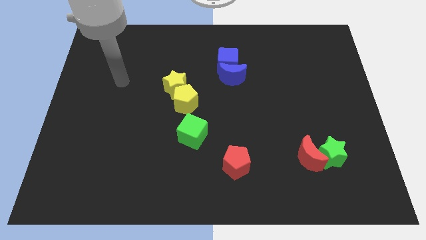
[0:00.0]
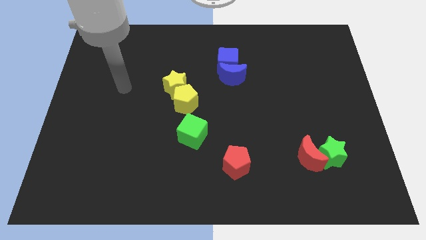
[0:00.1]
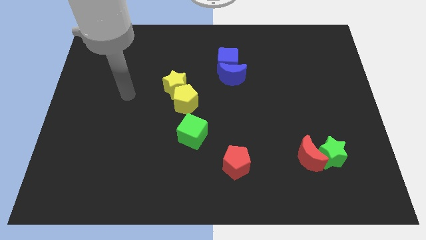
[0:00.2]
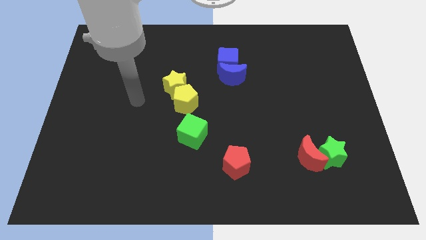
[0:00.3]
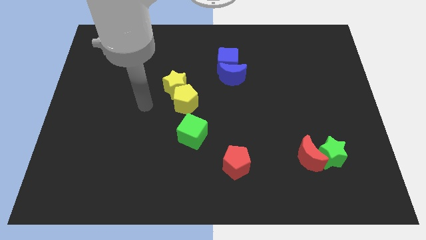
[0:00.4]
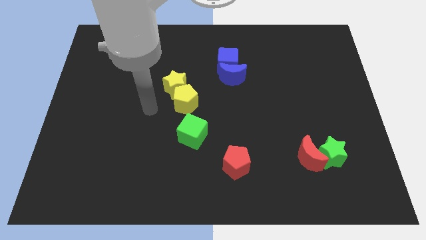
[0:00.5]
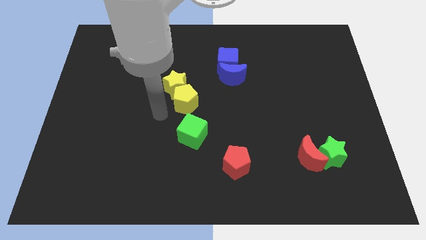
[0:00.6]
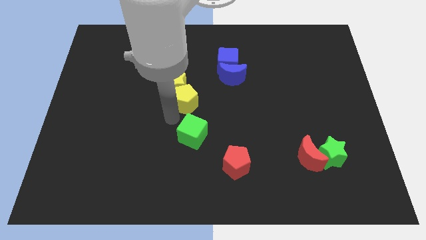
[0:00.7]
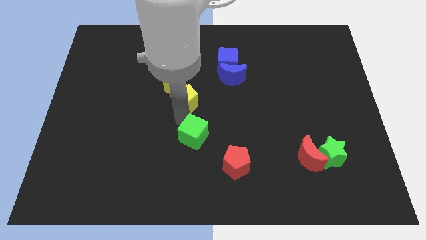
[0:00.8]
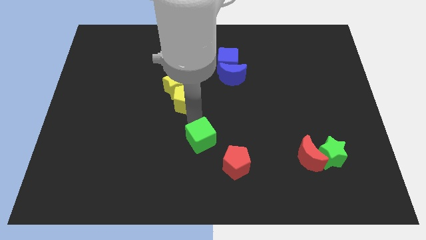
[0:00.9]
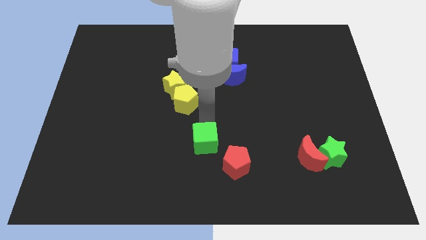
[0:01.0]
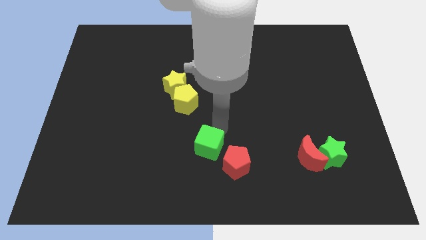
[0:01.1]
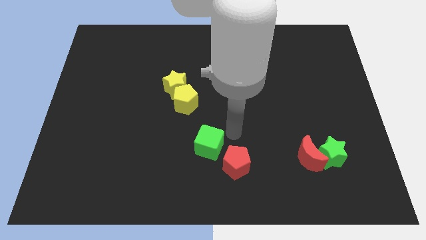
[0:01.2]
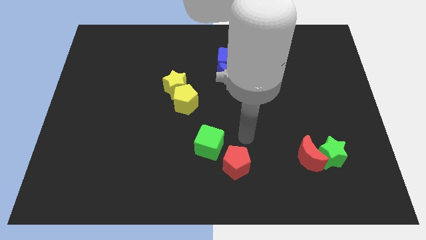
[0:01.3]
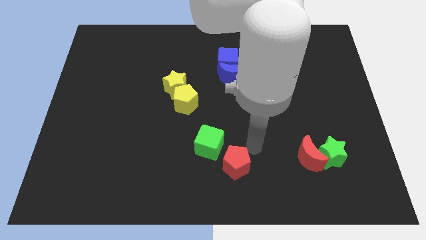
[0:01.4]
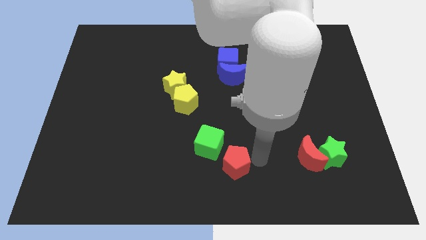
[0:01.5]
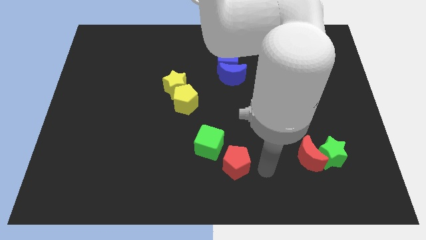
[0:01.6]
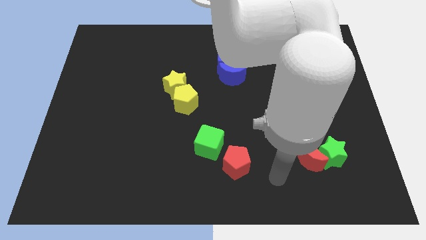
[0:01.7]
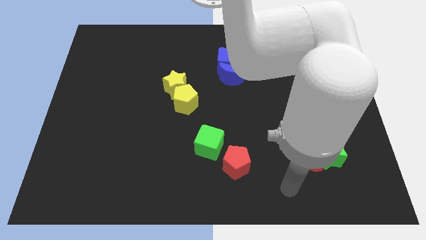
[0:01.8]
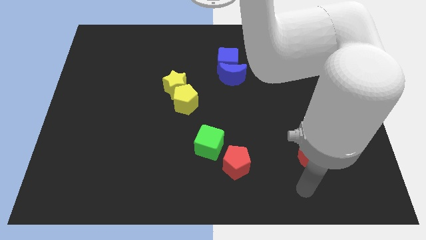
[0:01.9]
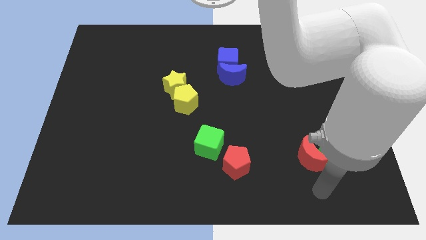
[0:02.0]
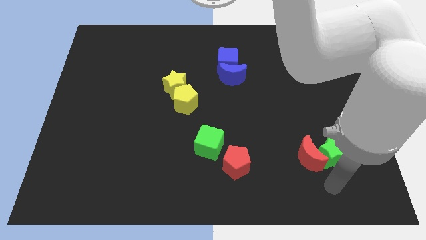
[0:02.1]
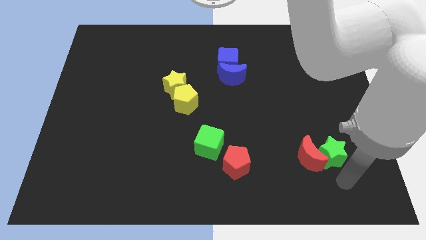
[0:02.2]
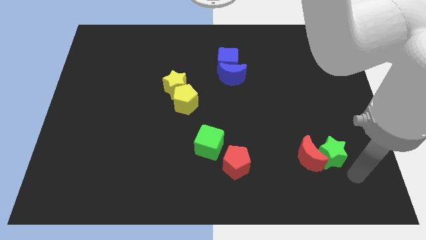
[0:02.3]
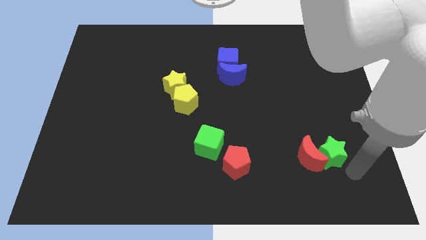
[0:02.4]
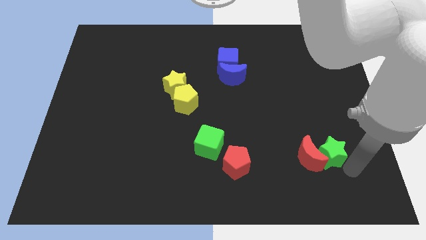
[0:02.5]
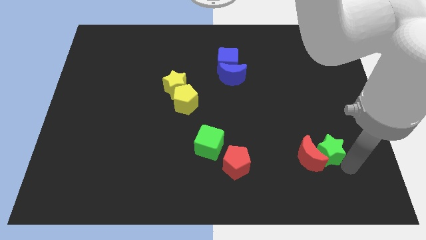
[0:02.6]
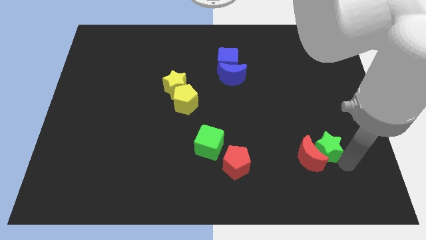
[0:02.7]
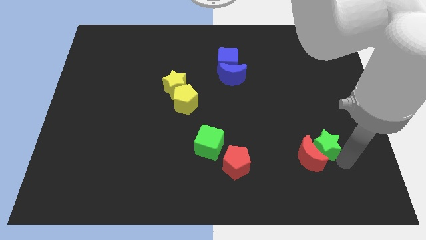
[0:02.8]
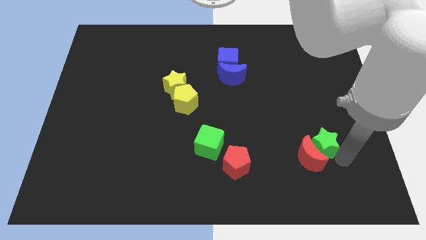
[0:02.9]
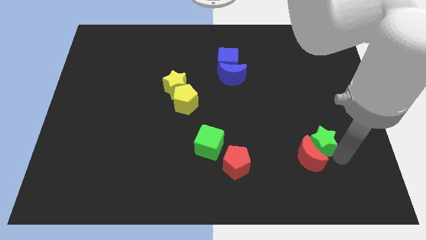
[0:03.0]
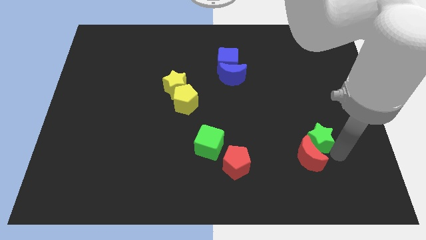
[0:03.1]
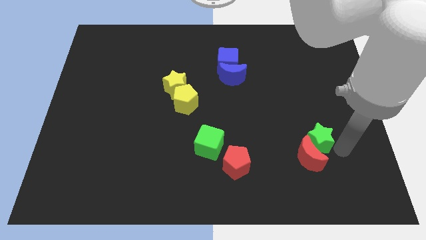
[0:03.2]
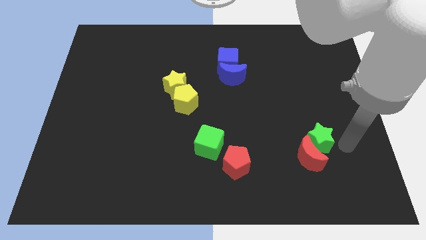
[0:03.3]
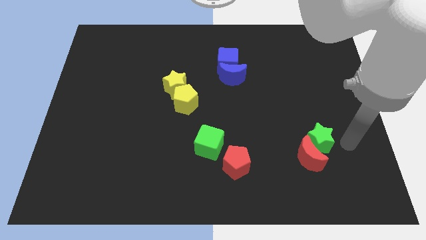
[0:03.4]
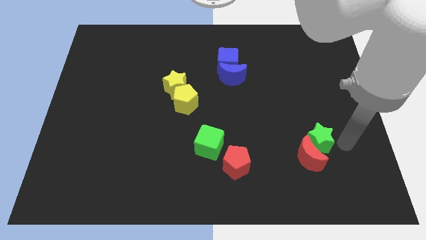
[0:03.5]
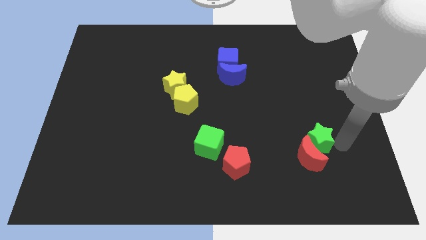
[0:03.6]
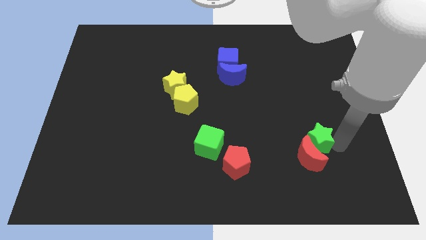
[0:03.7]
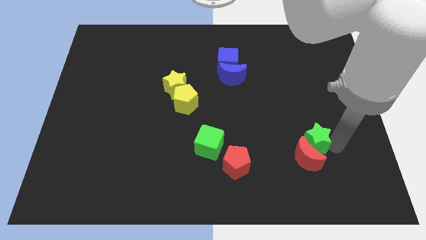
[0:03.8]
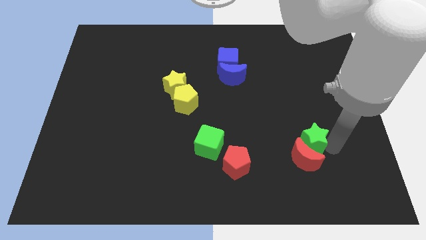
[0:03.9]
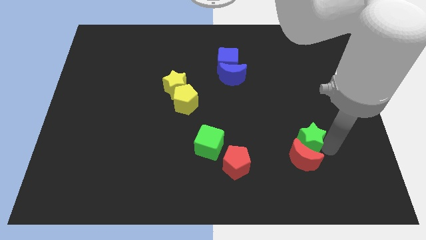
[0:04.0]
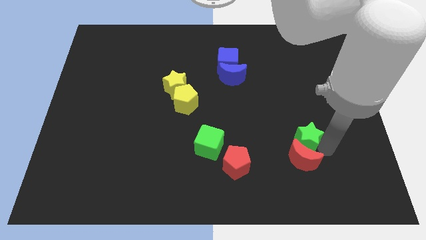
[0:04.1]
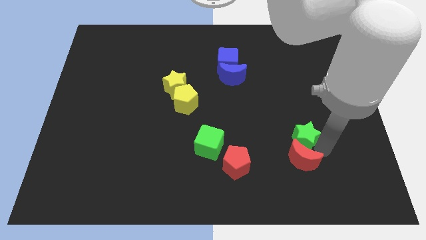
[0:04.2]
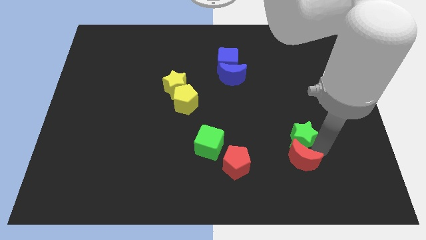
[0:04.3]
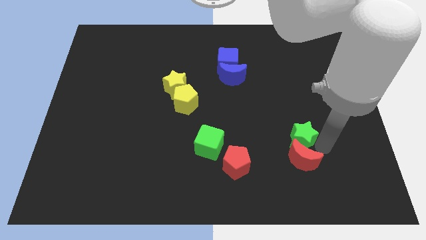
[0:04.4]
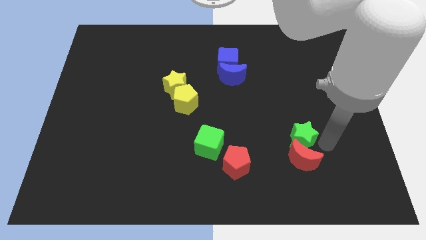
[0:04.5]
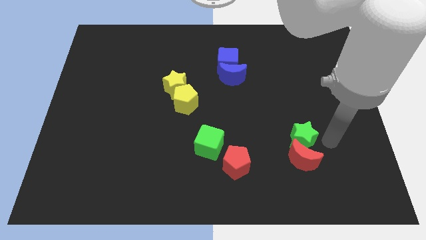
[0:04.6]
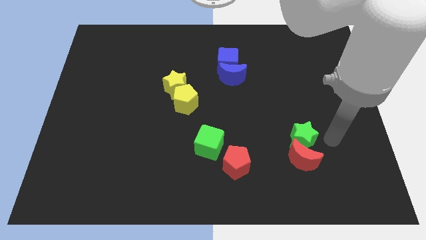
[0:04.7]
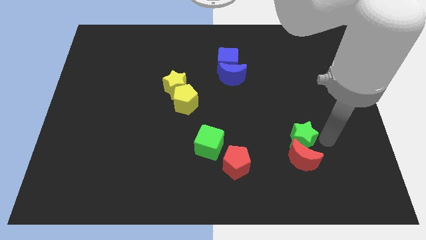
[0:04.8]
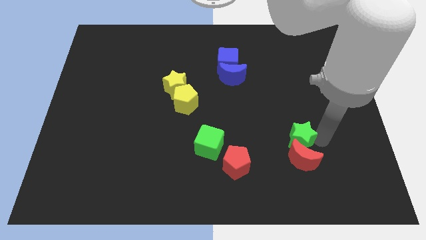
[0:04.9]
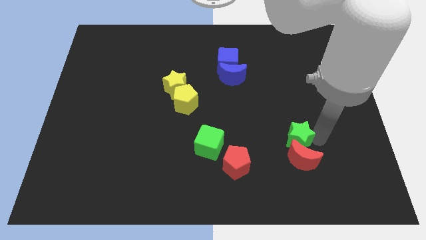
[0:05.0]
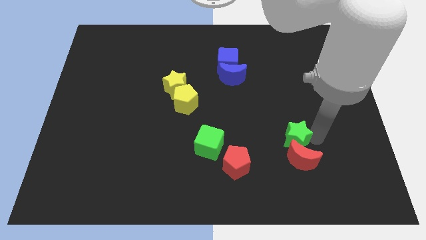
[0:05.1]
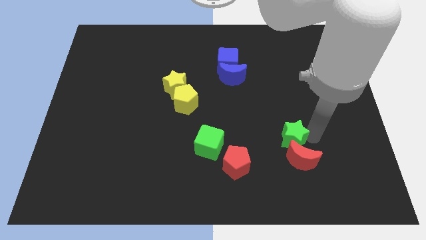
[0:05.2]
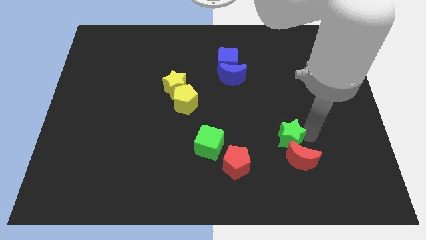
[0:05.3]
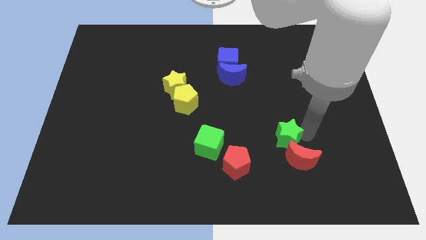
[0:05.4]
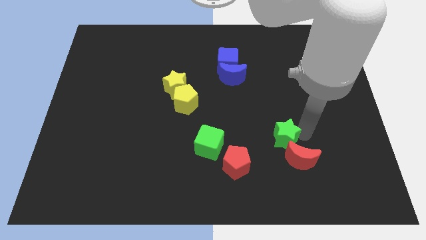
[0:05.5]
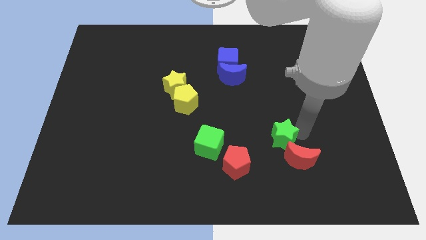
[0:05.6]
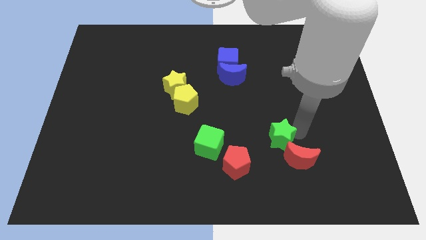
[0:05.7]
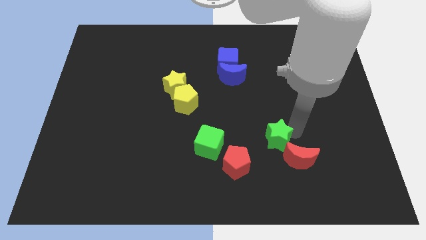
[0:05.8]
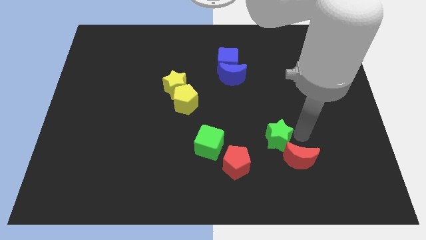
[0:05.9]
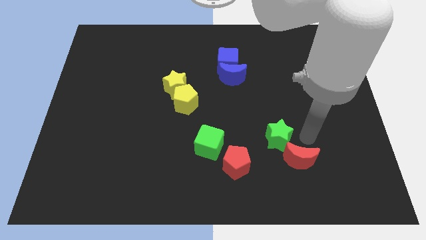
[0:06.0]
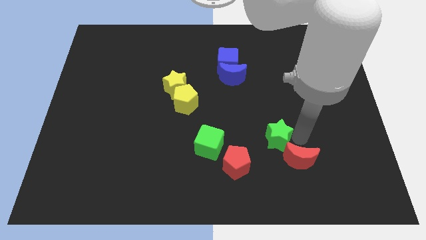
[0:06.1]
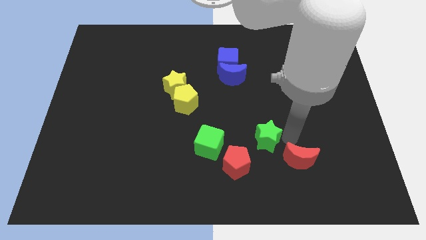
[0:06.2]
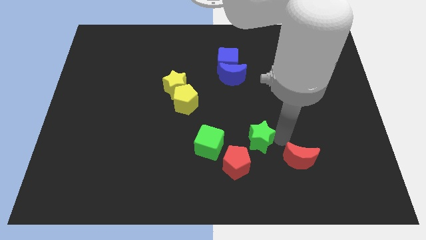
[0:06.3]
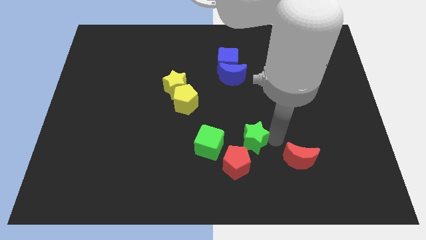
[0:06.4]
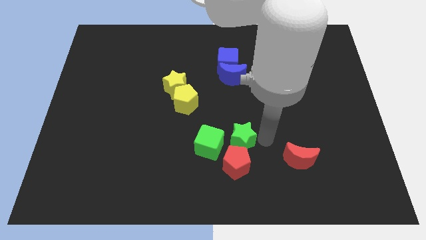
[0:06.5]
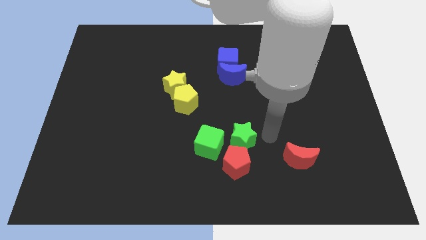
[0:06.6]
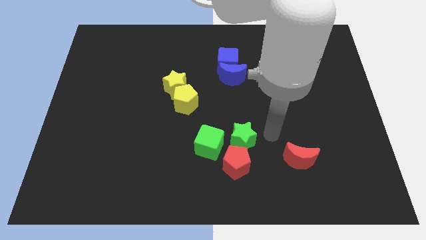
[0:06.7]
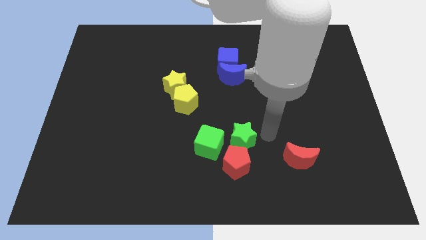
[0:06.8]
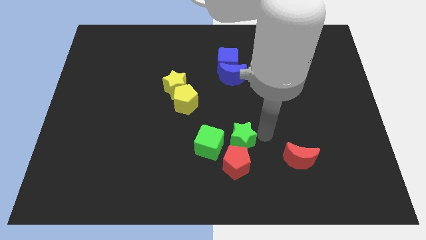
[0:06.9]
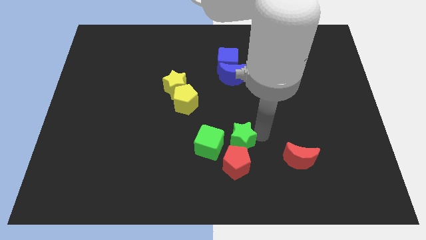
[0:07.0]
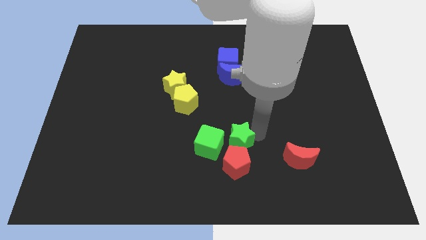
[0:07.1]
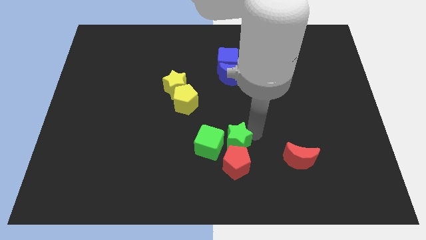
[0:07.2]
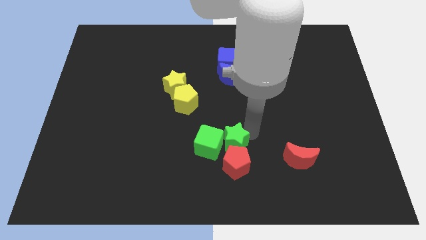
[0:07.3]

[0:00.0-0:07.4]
slide the green star to the left

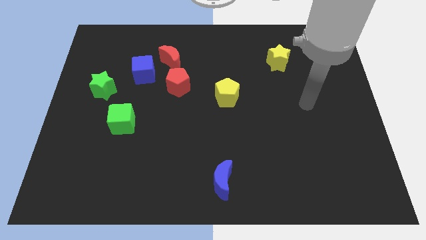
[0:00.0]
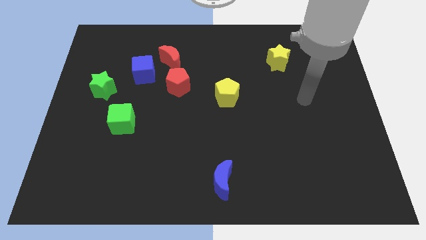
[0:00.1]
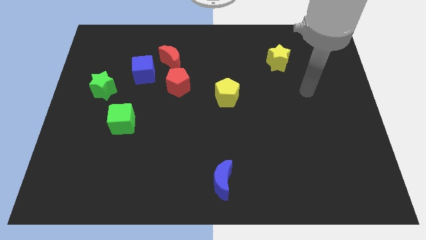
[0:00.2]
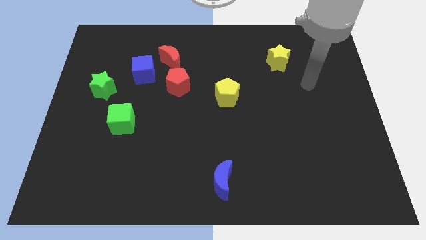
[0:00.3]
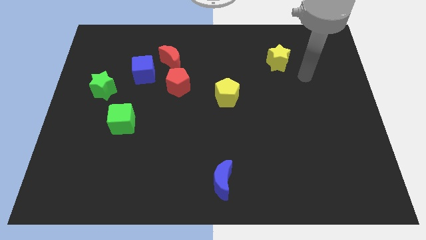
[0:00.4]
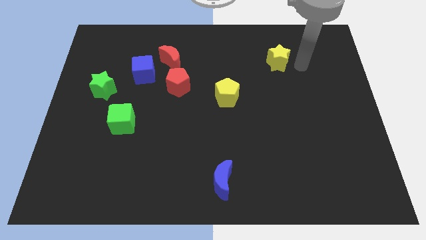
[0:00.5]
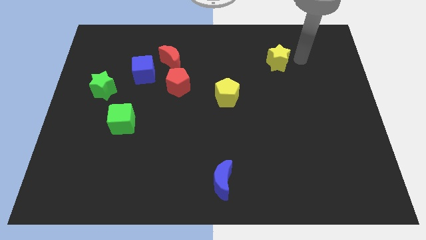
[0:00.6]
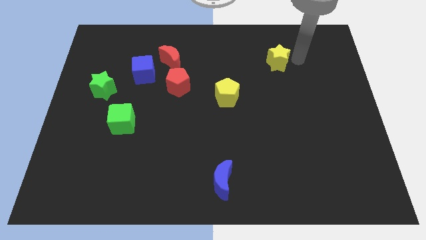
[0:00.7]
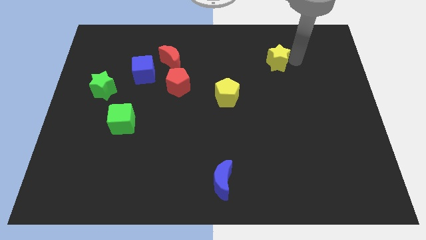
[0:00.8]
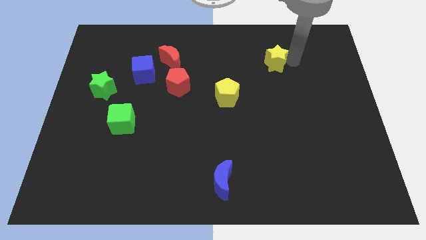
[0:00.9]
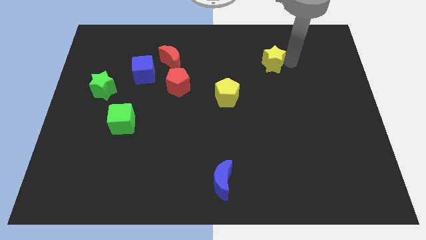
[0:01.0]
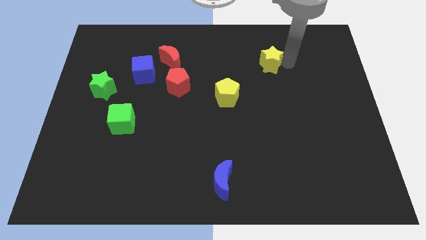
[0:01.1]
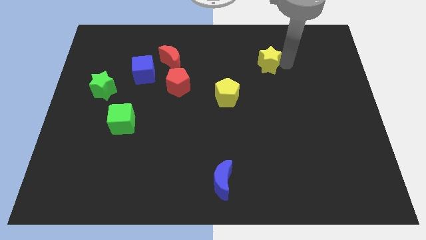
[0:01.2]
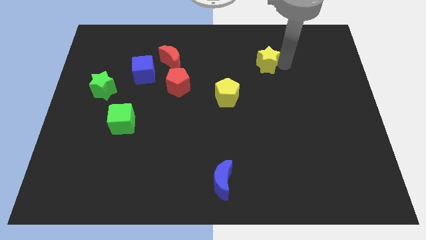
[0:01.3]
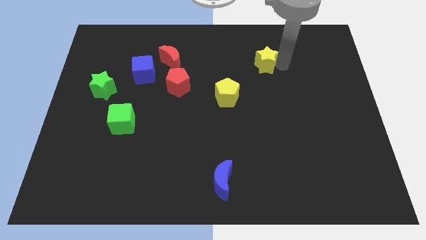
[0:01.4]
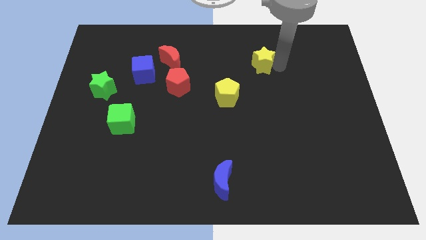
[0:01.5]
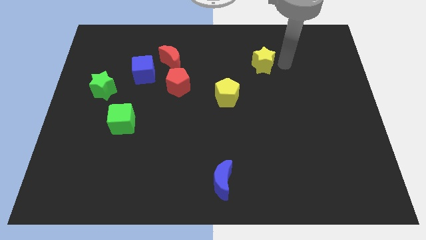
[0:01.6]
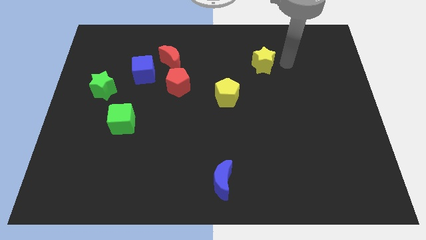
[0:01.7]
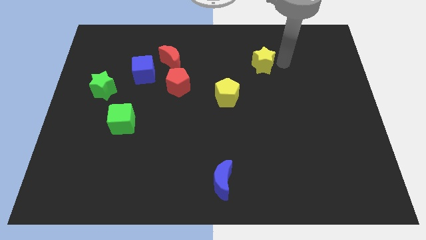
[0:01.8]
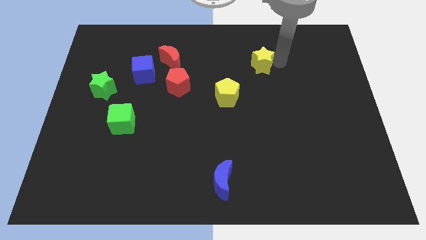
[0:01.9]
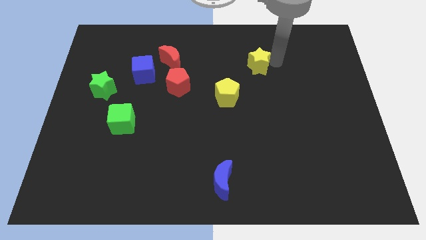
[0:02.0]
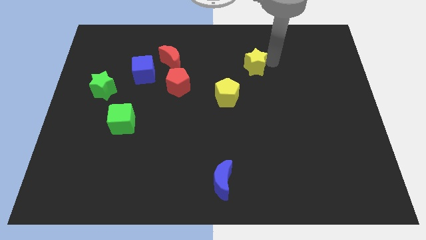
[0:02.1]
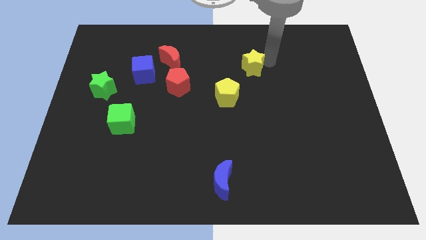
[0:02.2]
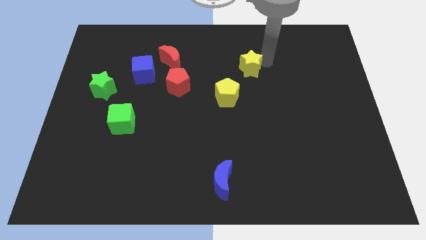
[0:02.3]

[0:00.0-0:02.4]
push the yellow star left slightly
